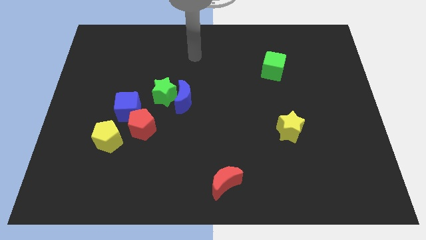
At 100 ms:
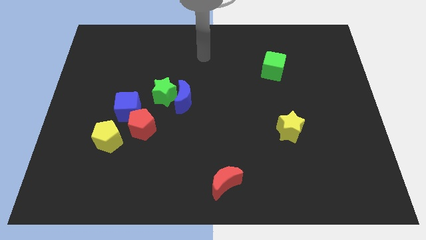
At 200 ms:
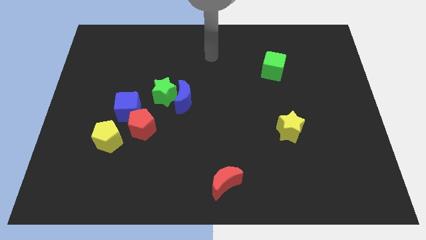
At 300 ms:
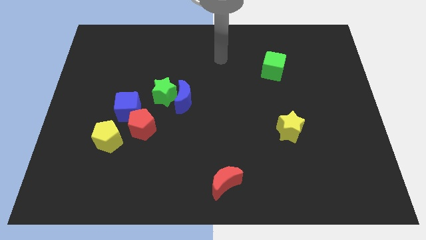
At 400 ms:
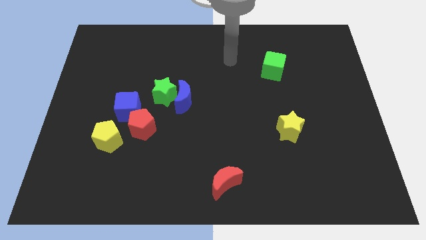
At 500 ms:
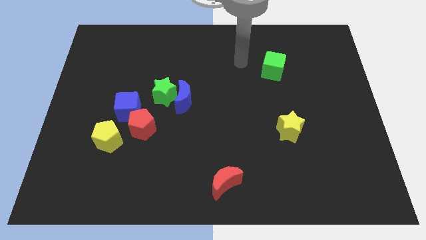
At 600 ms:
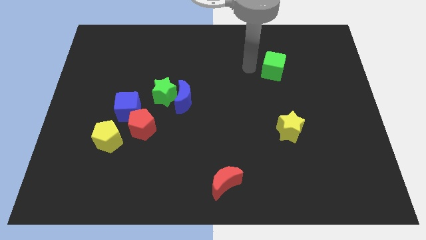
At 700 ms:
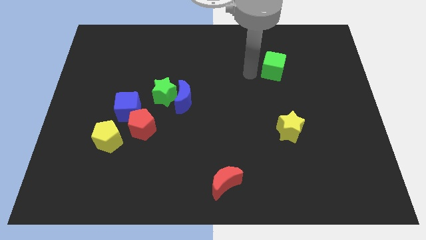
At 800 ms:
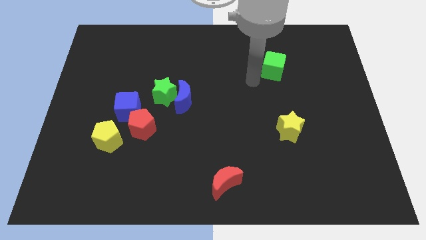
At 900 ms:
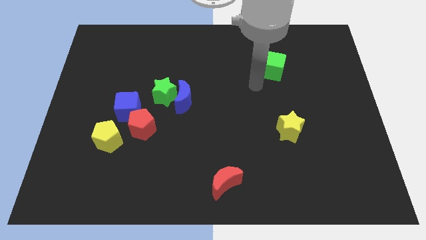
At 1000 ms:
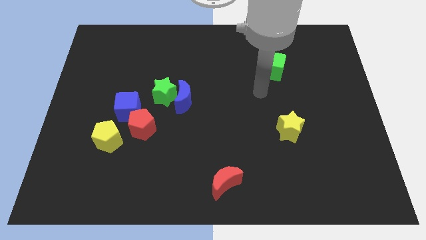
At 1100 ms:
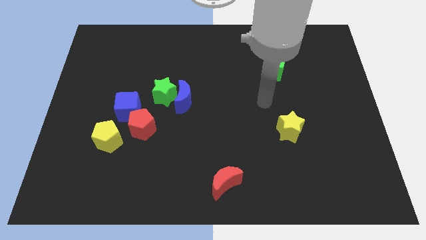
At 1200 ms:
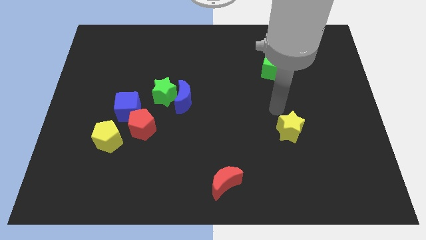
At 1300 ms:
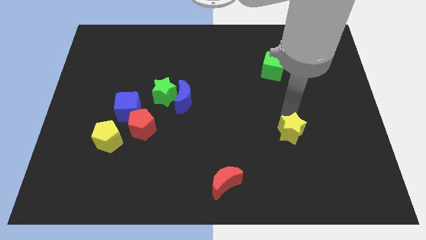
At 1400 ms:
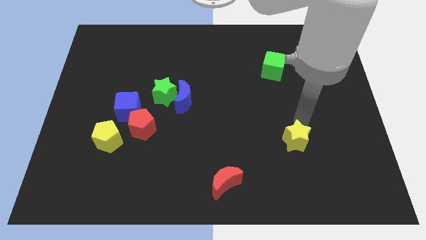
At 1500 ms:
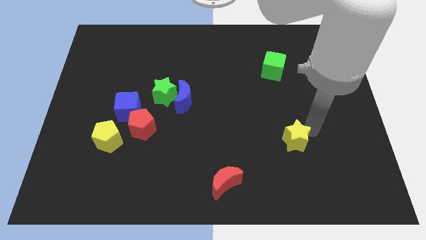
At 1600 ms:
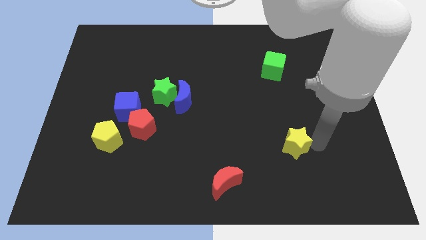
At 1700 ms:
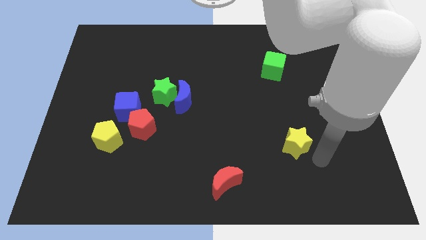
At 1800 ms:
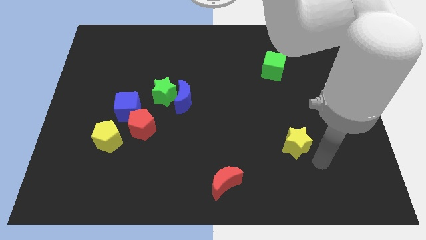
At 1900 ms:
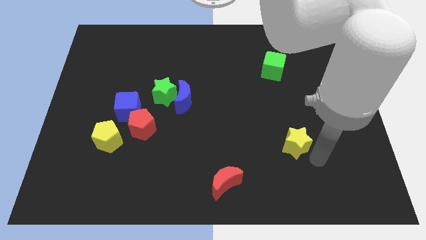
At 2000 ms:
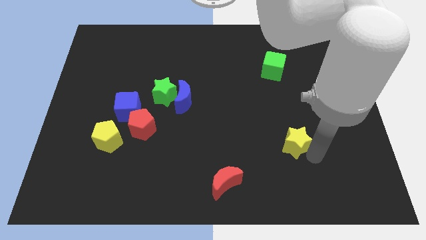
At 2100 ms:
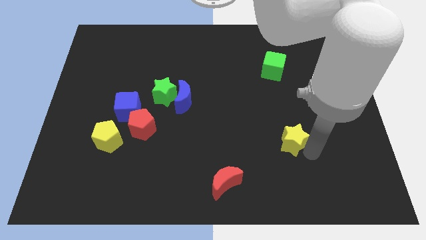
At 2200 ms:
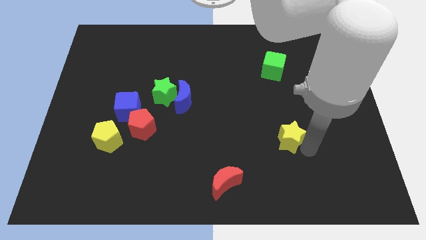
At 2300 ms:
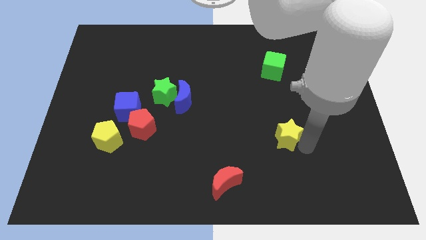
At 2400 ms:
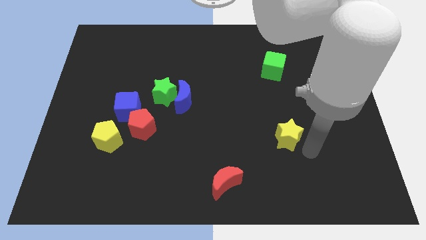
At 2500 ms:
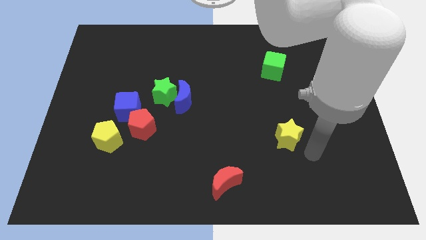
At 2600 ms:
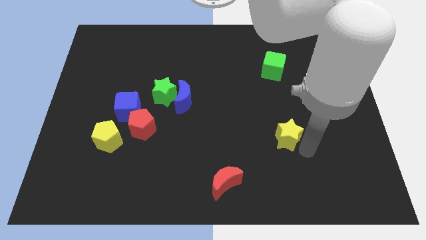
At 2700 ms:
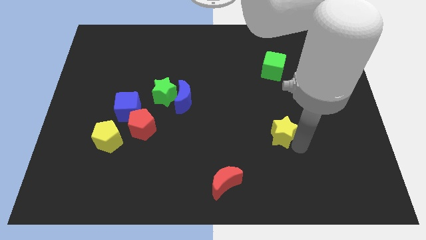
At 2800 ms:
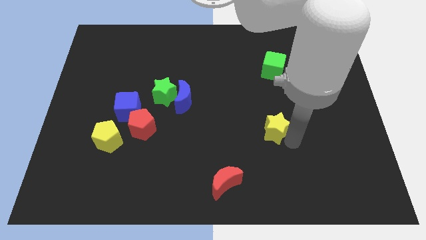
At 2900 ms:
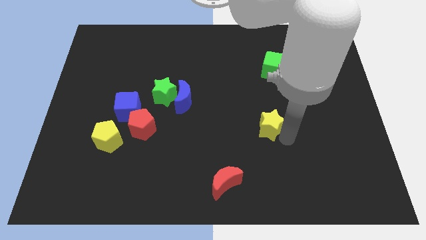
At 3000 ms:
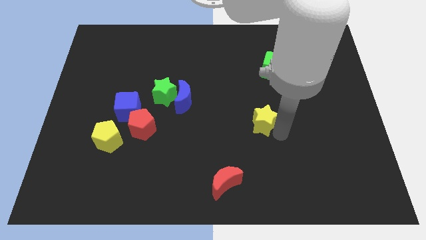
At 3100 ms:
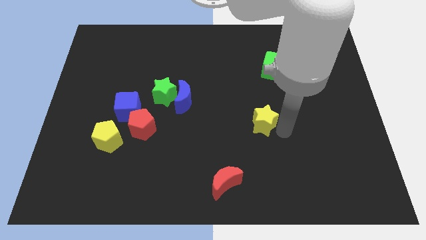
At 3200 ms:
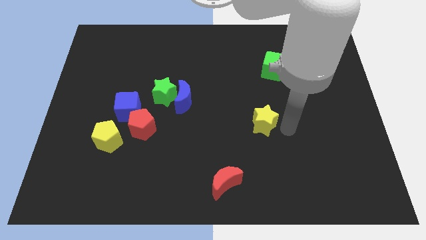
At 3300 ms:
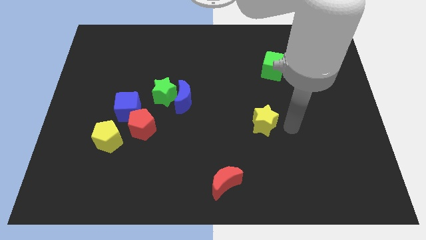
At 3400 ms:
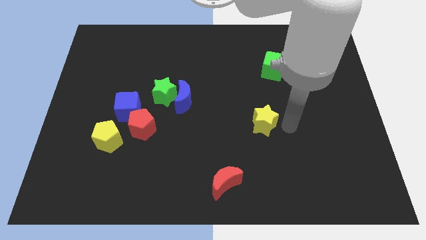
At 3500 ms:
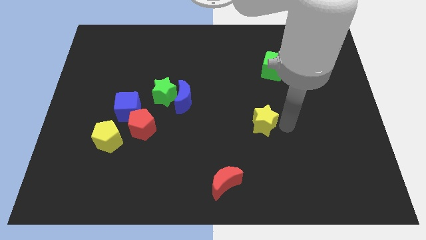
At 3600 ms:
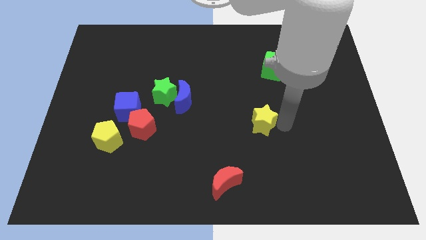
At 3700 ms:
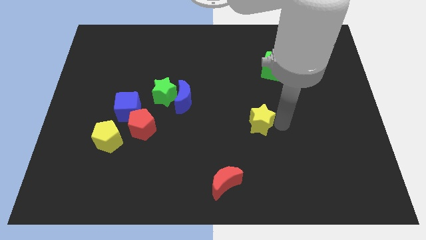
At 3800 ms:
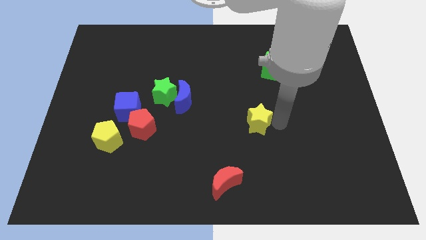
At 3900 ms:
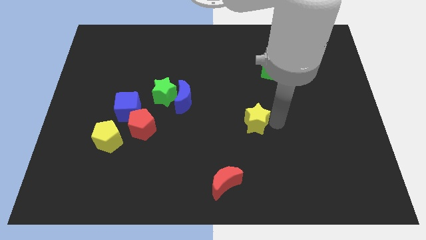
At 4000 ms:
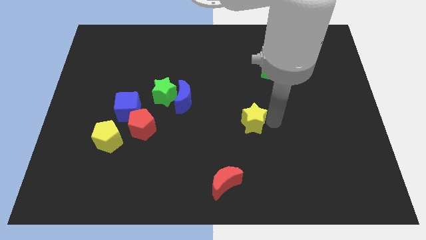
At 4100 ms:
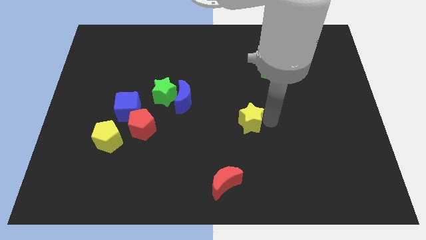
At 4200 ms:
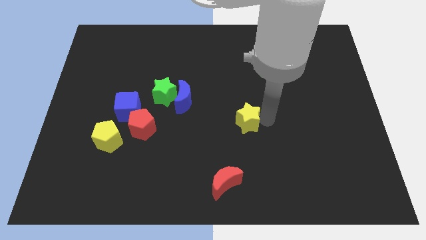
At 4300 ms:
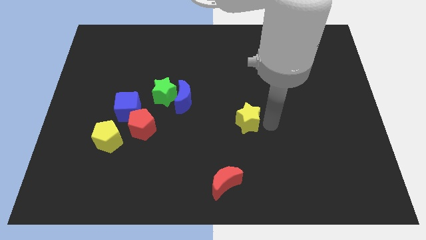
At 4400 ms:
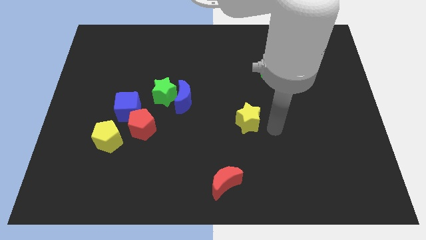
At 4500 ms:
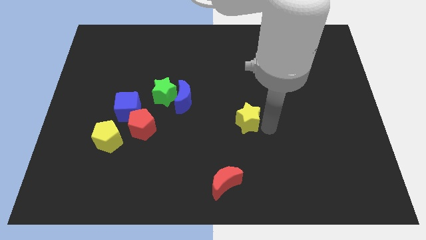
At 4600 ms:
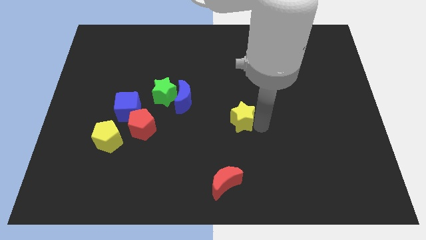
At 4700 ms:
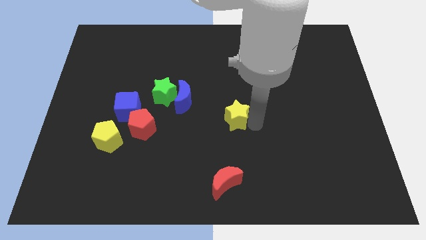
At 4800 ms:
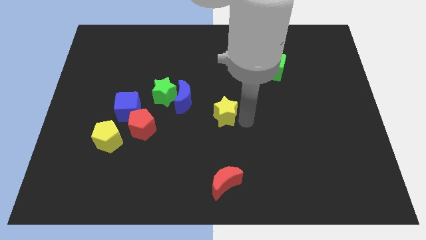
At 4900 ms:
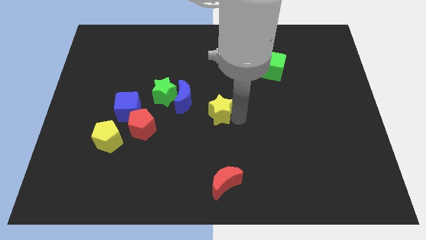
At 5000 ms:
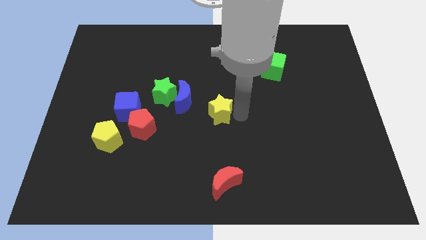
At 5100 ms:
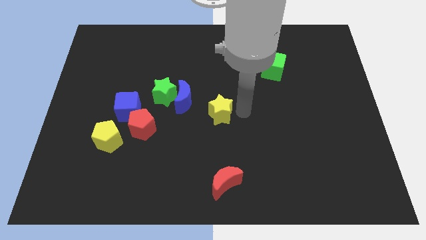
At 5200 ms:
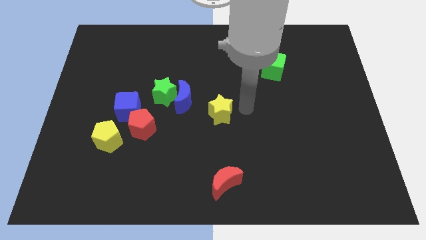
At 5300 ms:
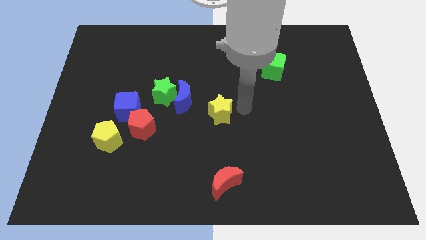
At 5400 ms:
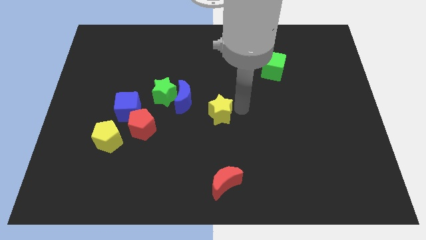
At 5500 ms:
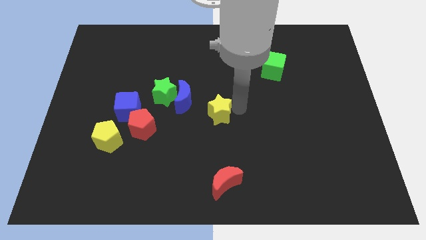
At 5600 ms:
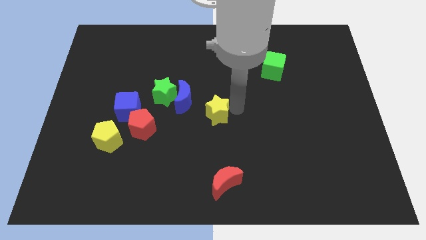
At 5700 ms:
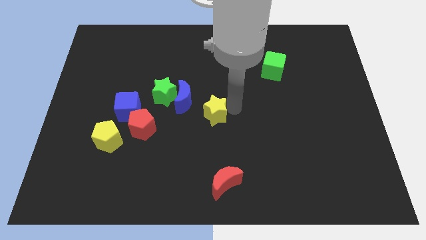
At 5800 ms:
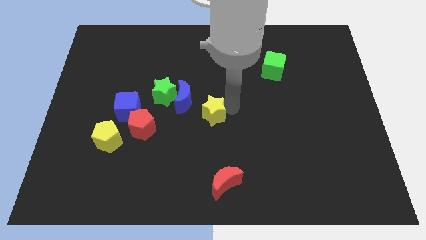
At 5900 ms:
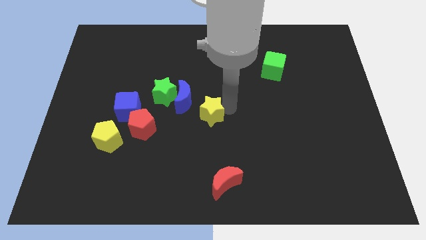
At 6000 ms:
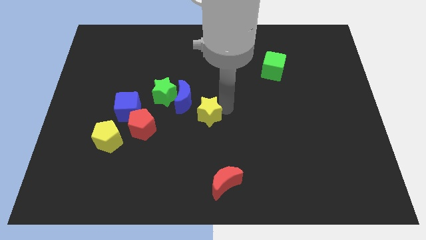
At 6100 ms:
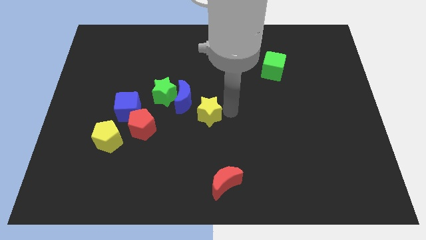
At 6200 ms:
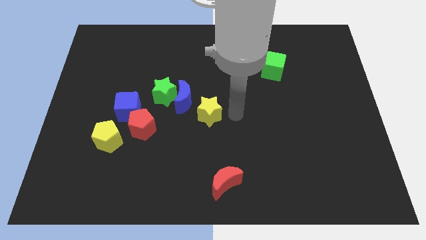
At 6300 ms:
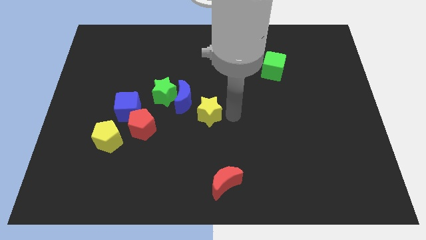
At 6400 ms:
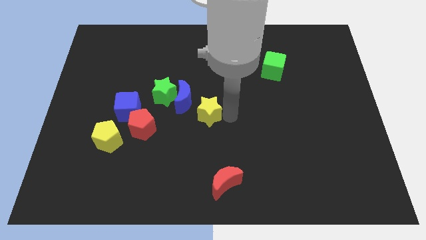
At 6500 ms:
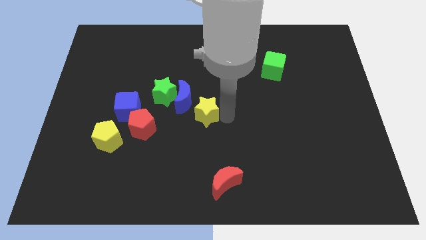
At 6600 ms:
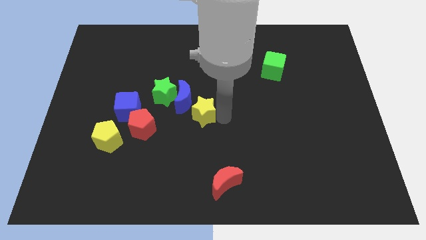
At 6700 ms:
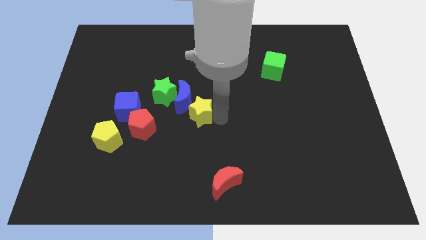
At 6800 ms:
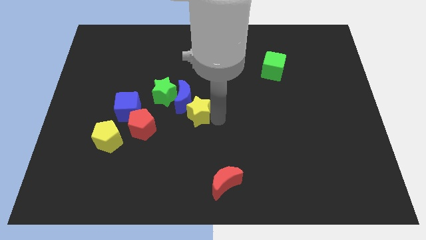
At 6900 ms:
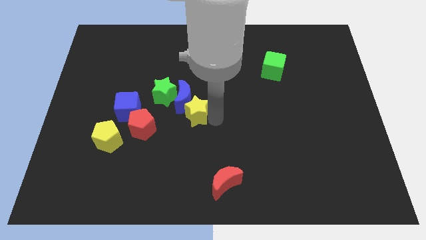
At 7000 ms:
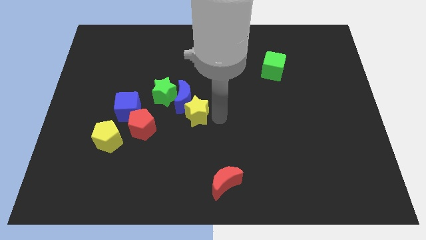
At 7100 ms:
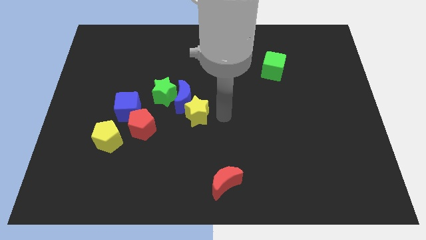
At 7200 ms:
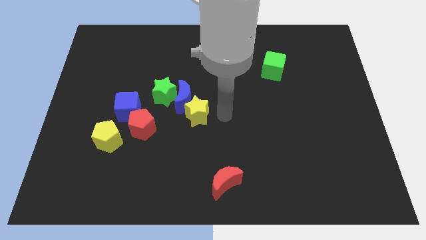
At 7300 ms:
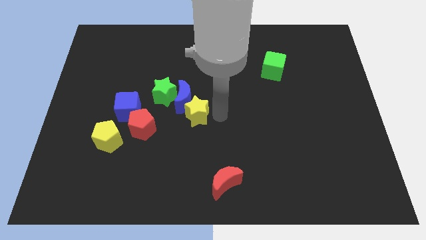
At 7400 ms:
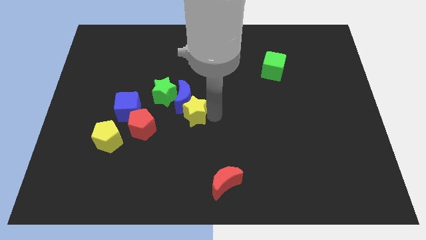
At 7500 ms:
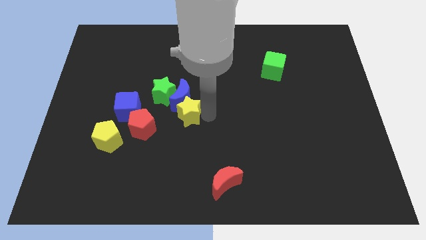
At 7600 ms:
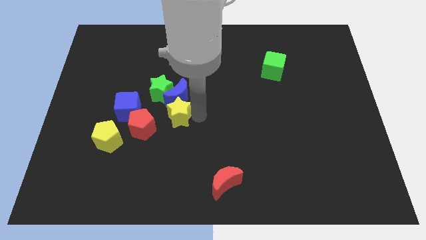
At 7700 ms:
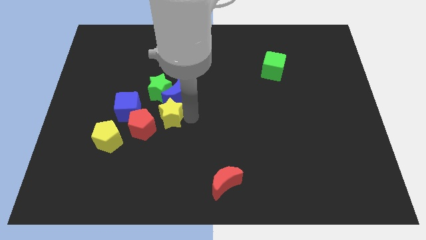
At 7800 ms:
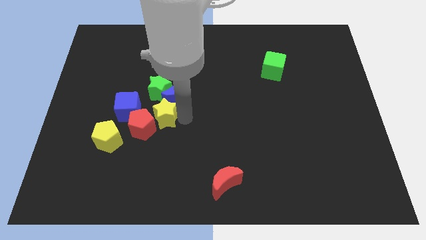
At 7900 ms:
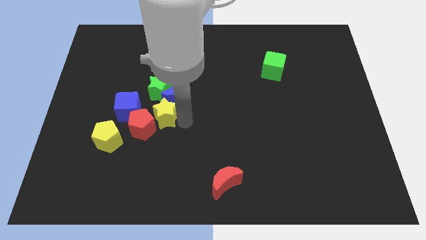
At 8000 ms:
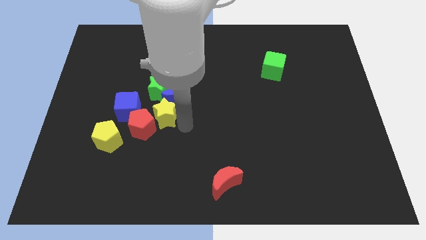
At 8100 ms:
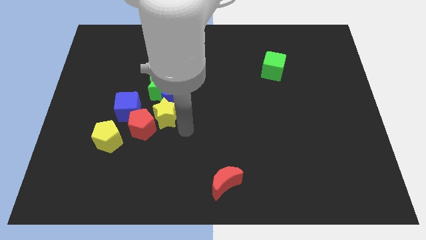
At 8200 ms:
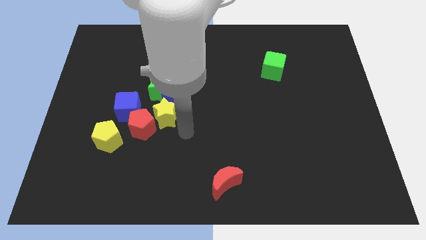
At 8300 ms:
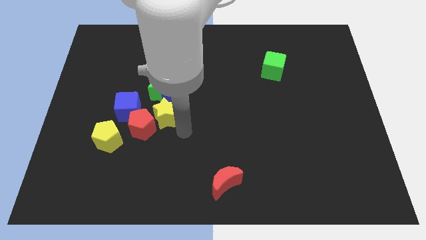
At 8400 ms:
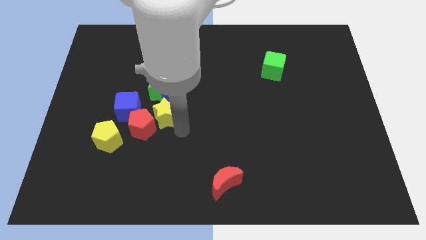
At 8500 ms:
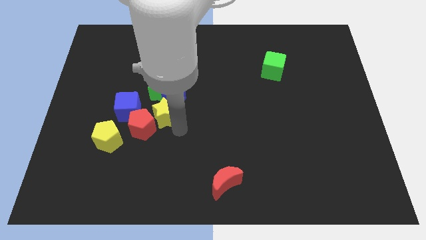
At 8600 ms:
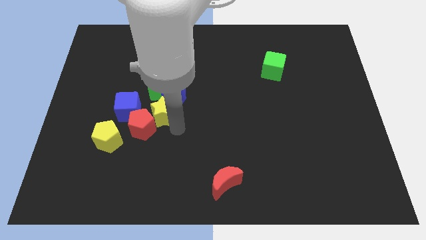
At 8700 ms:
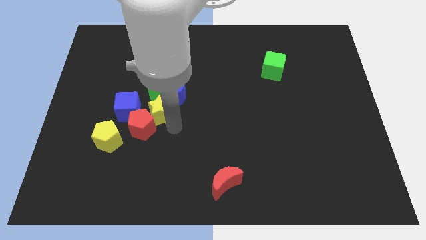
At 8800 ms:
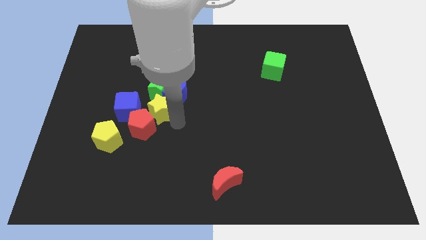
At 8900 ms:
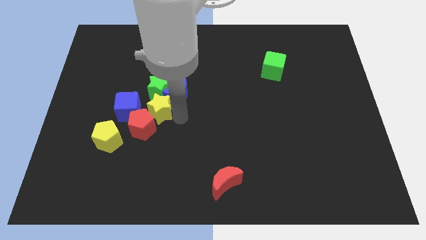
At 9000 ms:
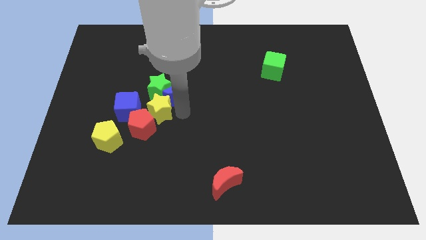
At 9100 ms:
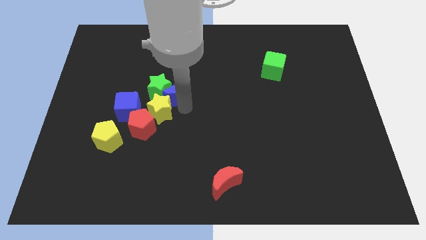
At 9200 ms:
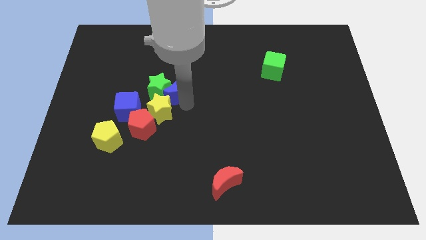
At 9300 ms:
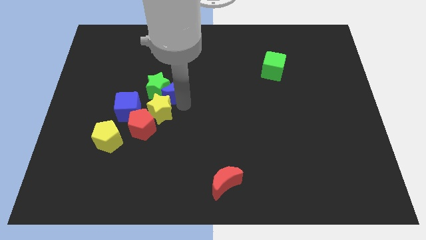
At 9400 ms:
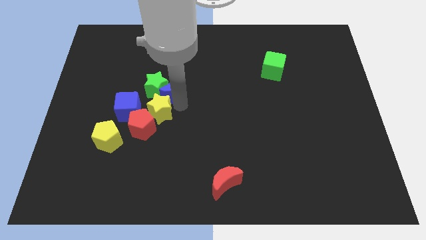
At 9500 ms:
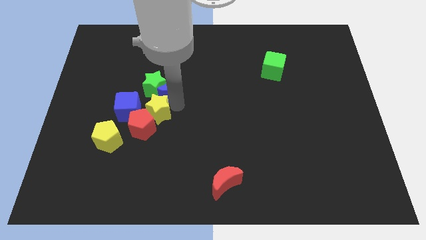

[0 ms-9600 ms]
move the yellow star to the top right side of the yellow pentagon
